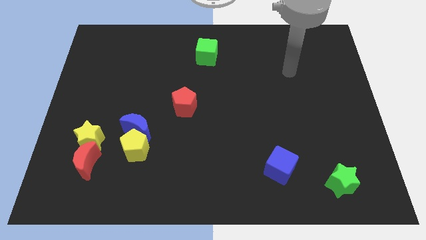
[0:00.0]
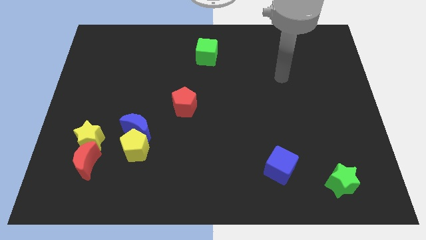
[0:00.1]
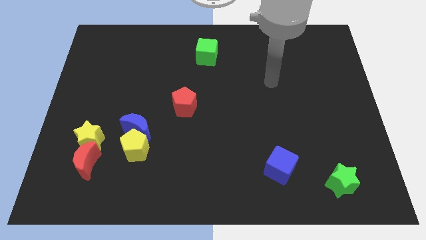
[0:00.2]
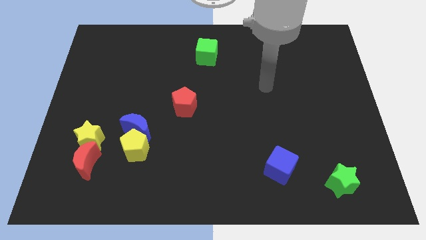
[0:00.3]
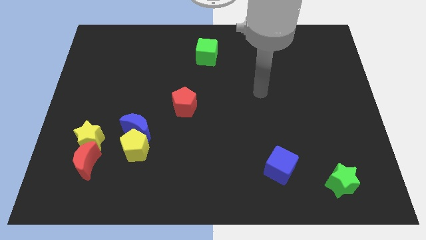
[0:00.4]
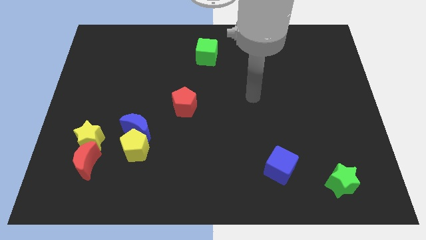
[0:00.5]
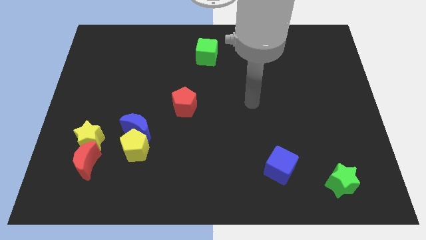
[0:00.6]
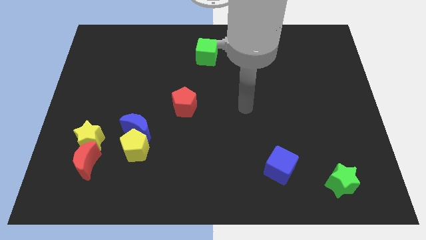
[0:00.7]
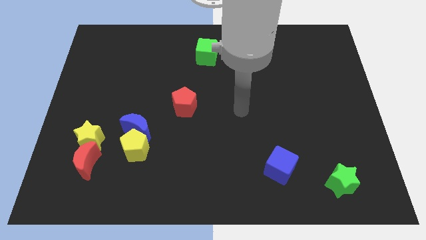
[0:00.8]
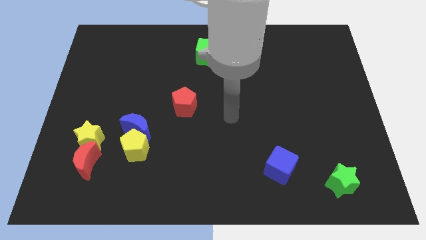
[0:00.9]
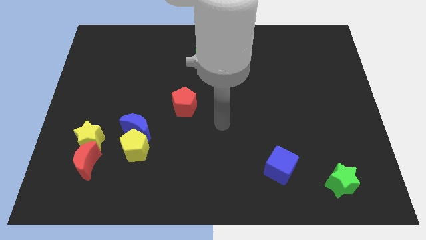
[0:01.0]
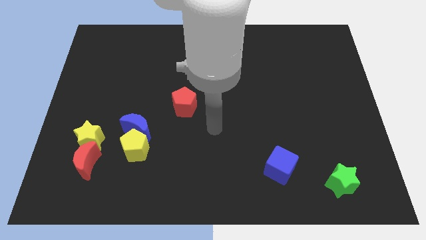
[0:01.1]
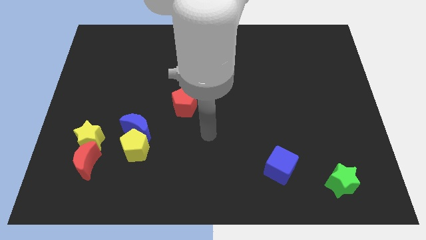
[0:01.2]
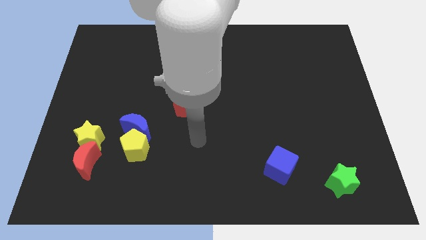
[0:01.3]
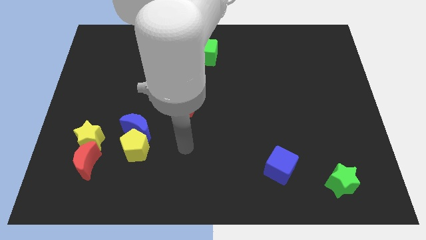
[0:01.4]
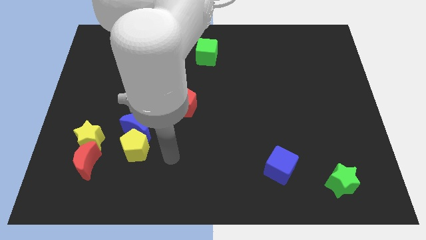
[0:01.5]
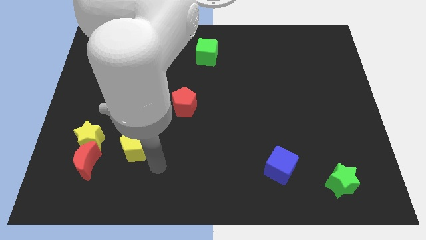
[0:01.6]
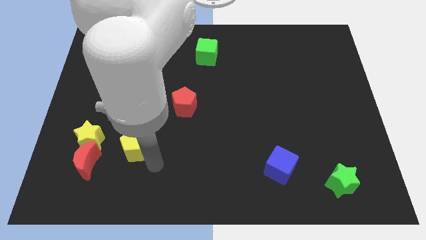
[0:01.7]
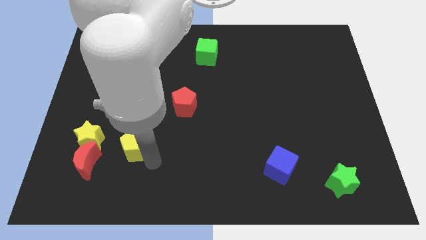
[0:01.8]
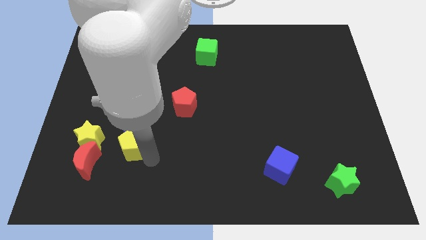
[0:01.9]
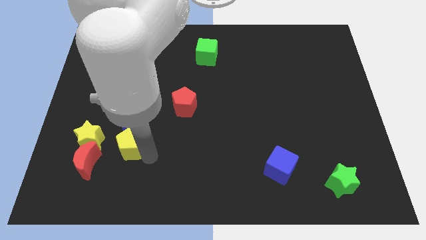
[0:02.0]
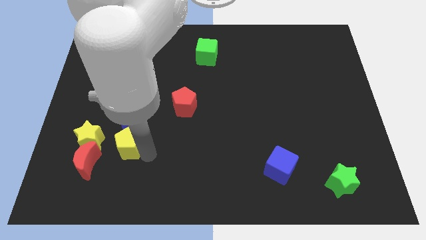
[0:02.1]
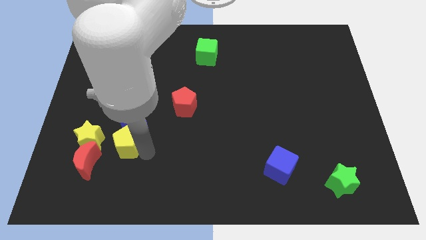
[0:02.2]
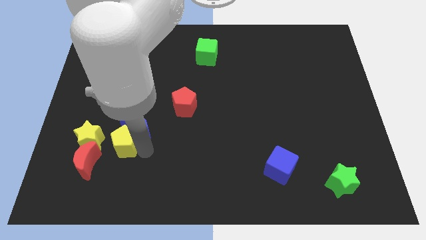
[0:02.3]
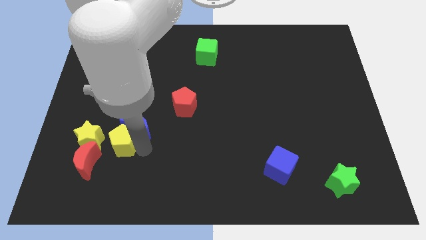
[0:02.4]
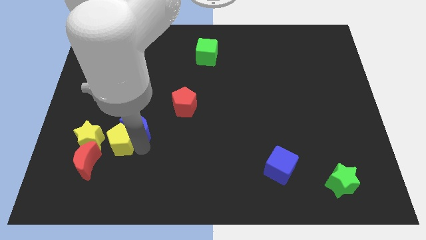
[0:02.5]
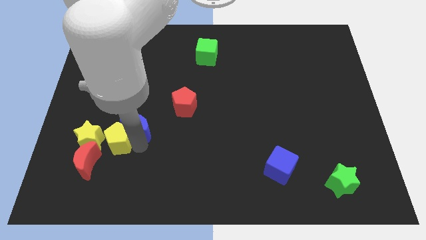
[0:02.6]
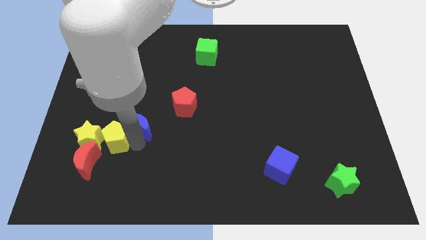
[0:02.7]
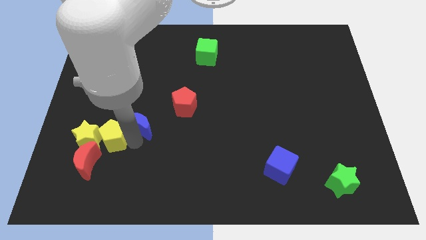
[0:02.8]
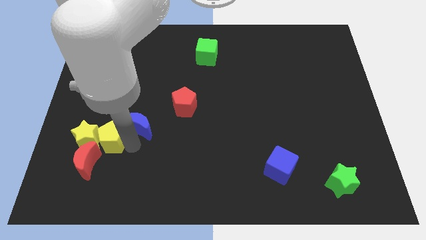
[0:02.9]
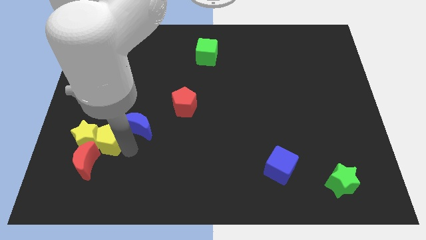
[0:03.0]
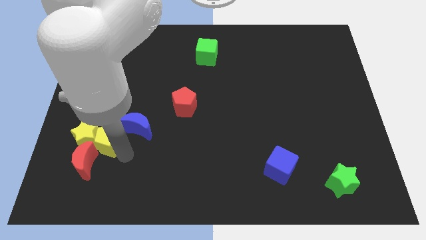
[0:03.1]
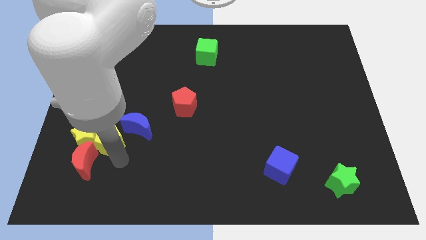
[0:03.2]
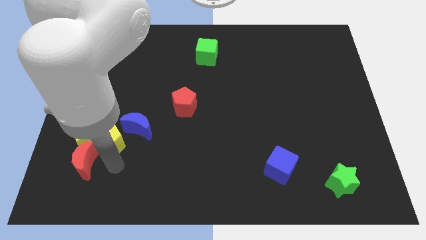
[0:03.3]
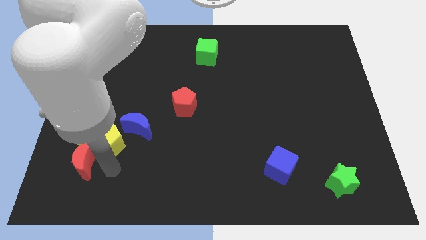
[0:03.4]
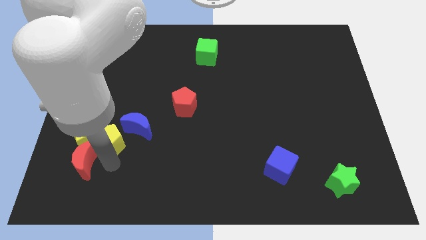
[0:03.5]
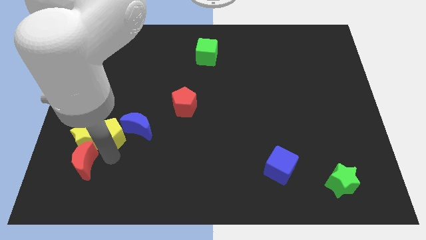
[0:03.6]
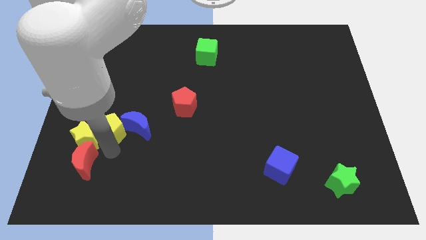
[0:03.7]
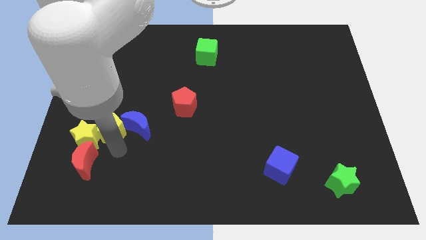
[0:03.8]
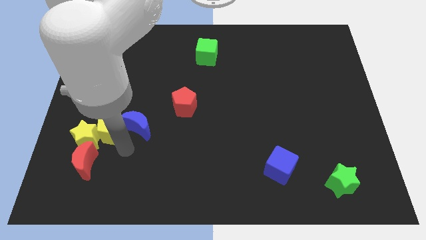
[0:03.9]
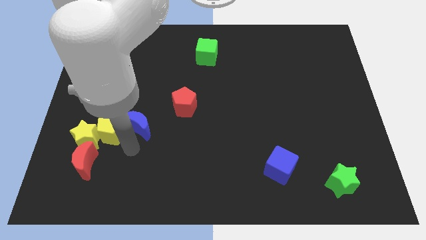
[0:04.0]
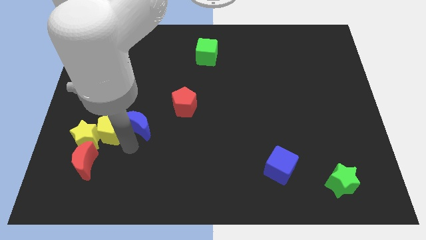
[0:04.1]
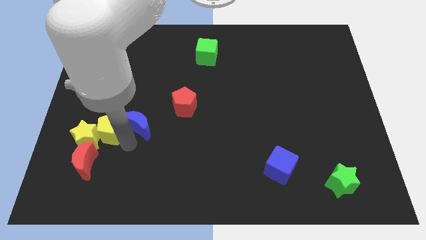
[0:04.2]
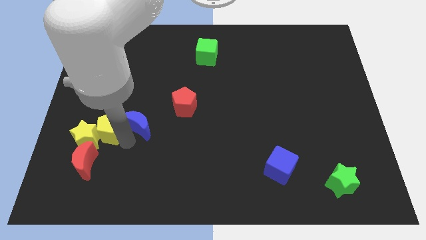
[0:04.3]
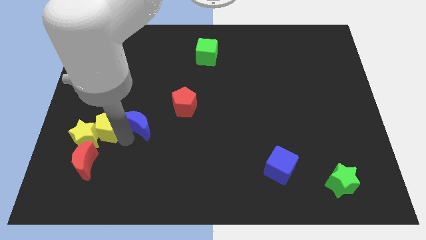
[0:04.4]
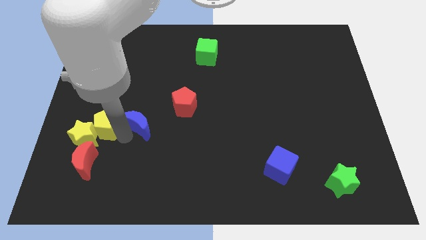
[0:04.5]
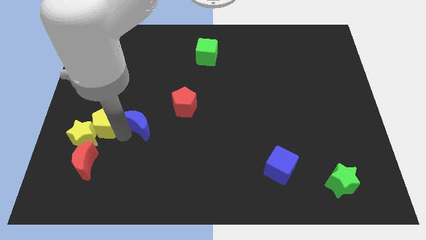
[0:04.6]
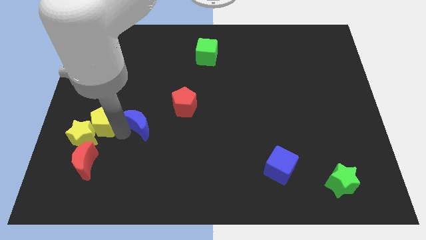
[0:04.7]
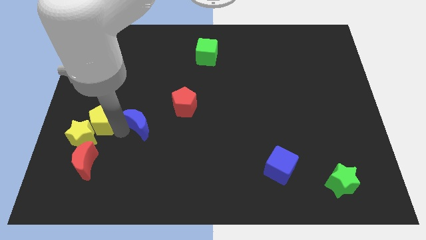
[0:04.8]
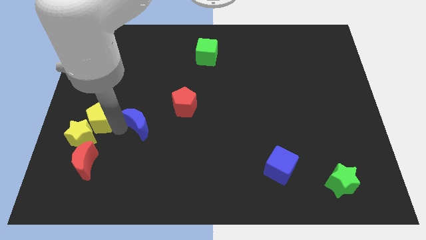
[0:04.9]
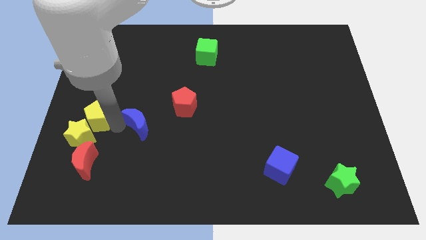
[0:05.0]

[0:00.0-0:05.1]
put the yellow pentagon to the left side

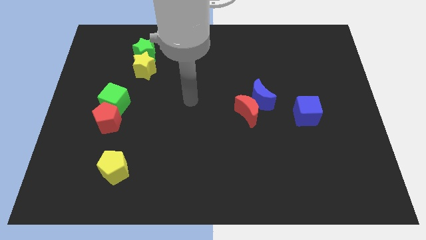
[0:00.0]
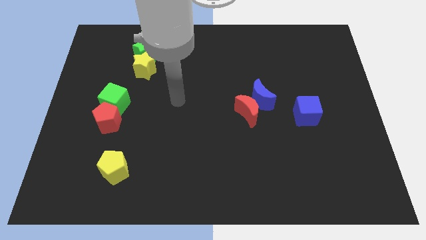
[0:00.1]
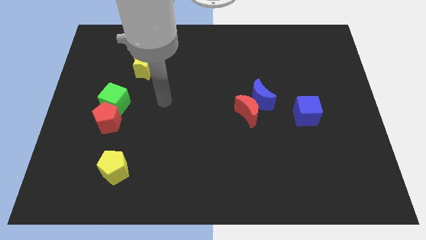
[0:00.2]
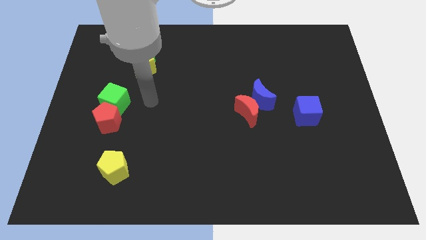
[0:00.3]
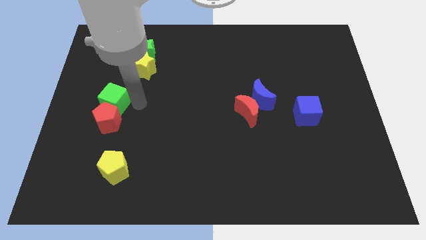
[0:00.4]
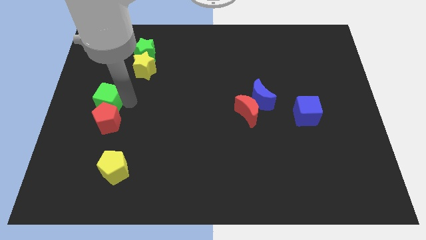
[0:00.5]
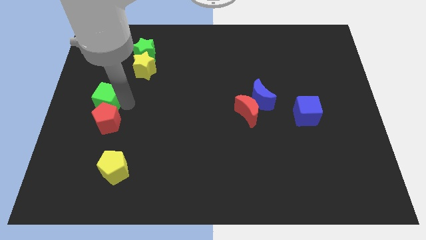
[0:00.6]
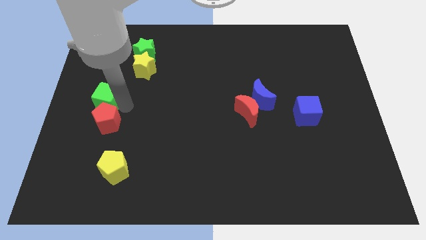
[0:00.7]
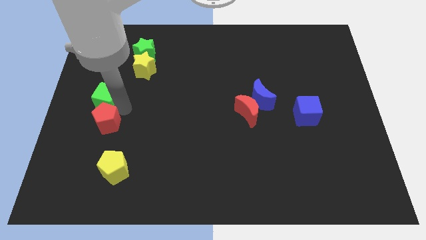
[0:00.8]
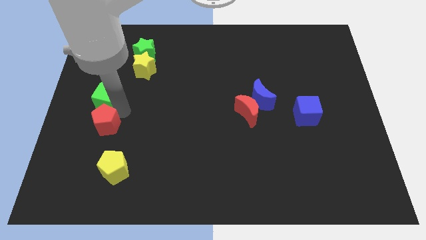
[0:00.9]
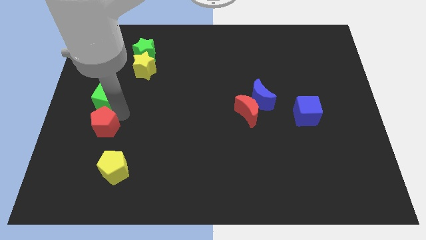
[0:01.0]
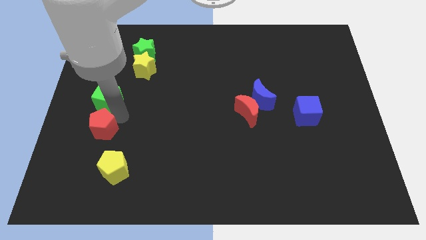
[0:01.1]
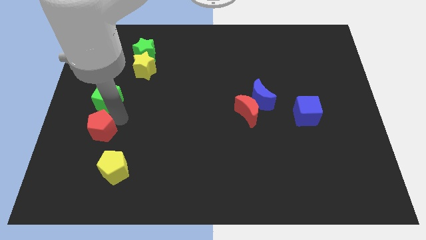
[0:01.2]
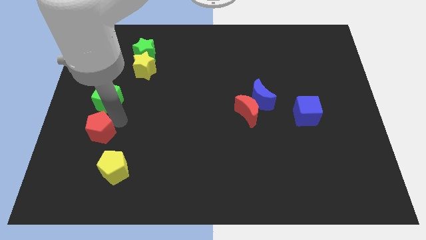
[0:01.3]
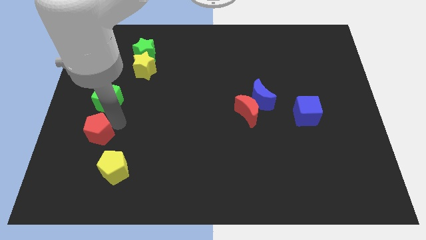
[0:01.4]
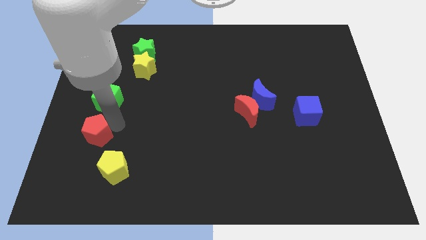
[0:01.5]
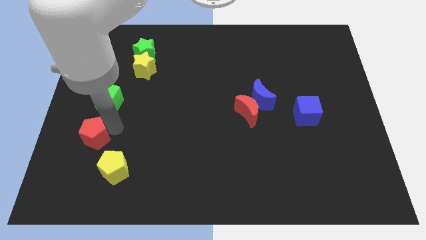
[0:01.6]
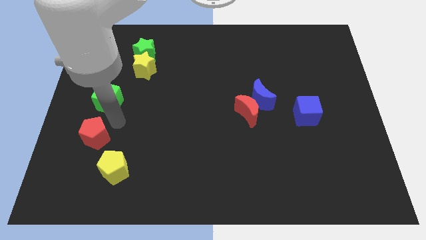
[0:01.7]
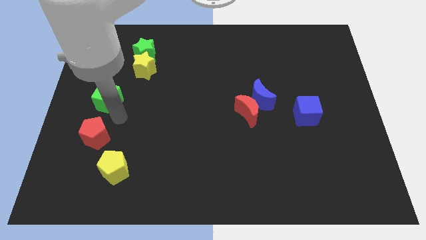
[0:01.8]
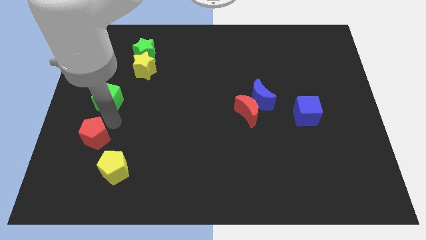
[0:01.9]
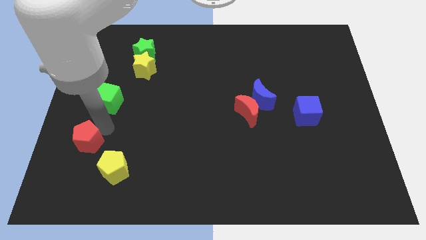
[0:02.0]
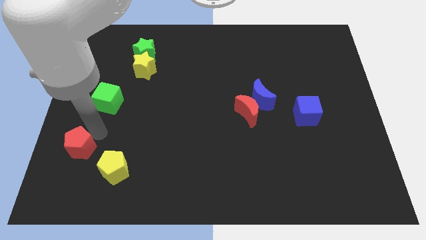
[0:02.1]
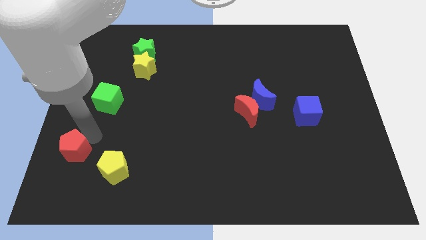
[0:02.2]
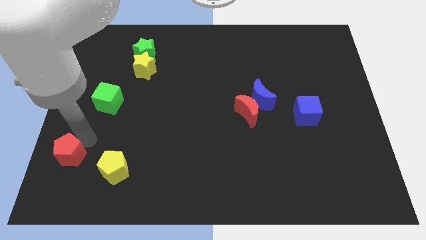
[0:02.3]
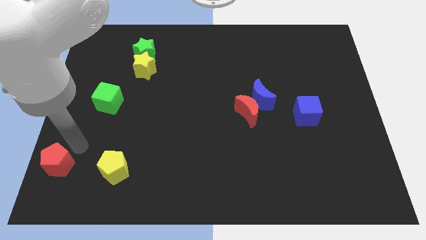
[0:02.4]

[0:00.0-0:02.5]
push the red pentagon to the bottom left
